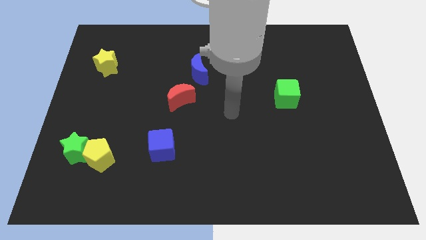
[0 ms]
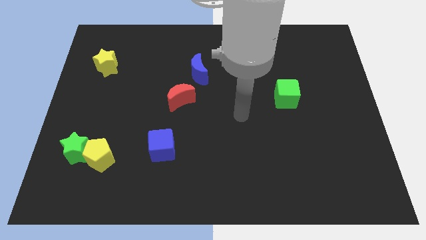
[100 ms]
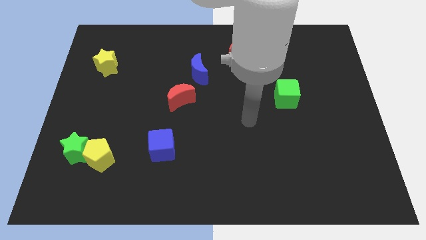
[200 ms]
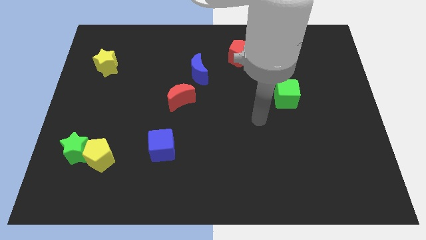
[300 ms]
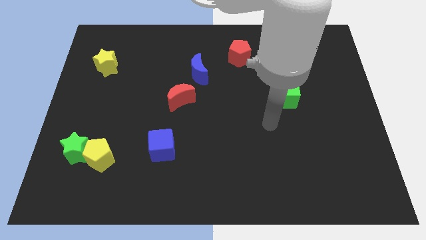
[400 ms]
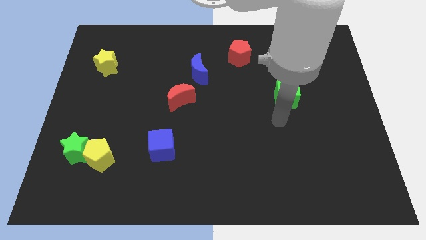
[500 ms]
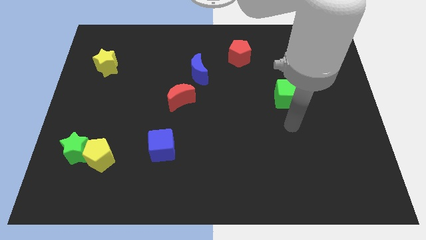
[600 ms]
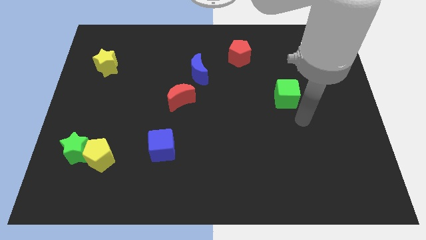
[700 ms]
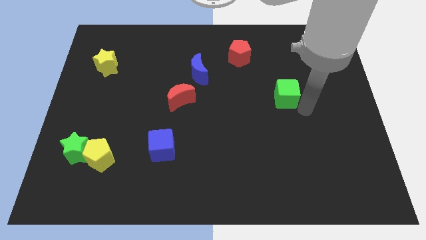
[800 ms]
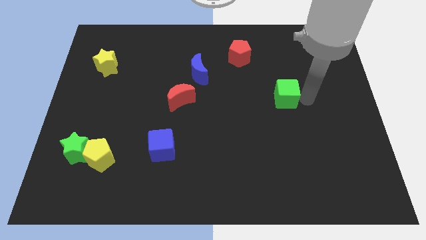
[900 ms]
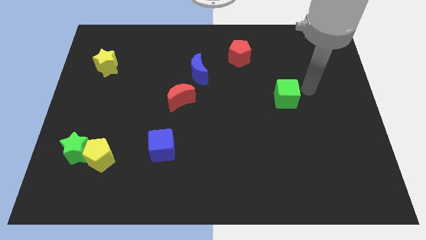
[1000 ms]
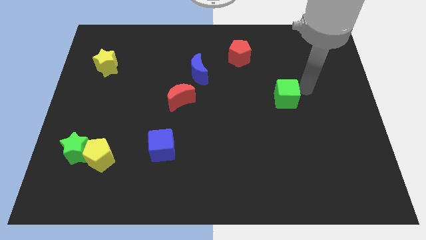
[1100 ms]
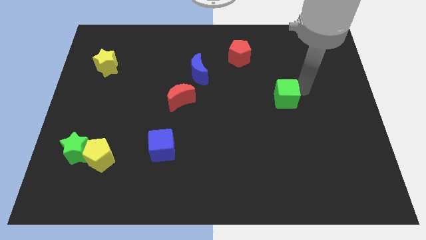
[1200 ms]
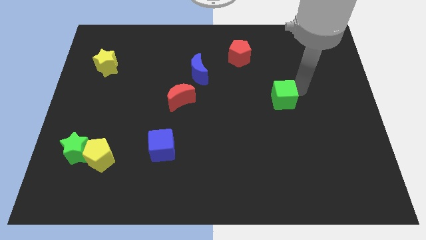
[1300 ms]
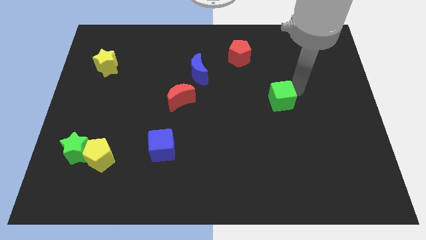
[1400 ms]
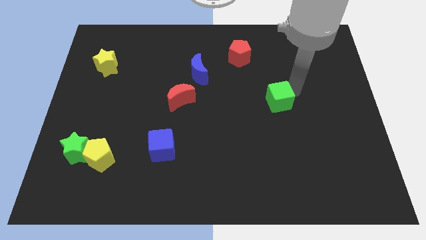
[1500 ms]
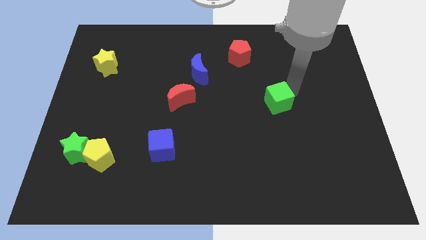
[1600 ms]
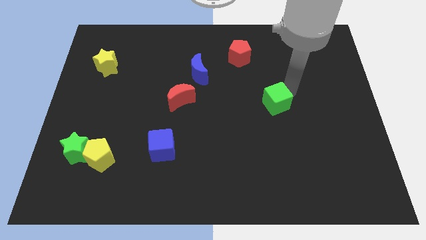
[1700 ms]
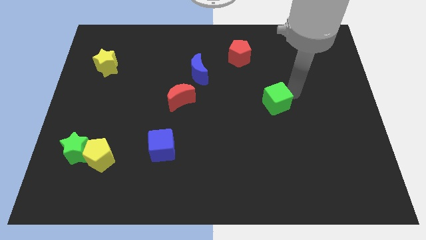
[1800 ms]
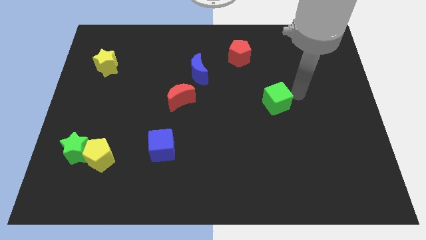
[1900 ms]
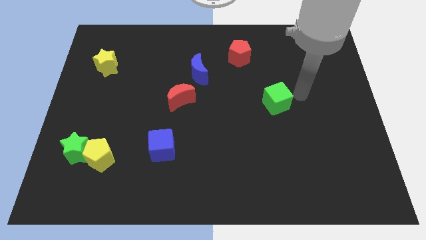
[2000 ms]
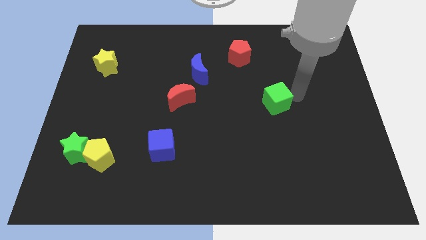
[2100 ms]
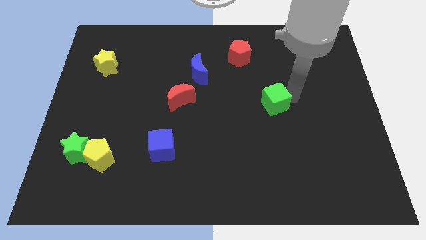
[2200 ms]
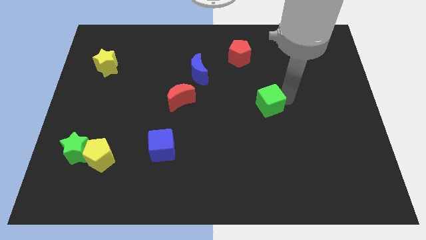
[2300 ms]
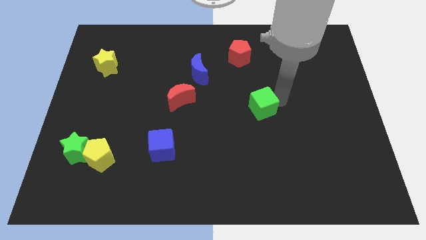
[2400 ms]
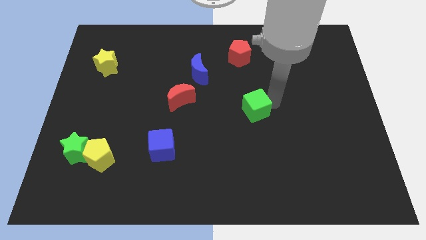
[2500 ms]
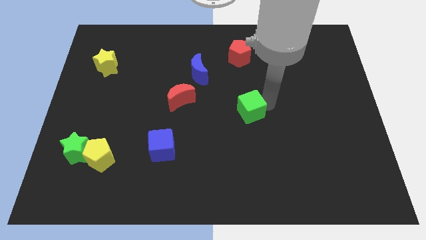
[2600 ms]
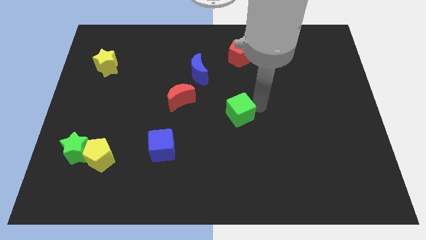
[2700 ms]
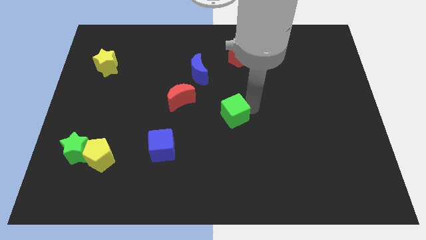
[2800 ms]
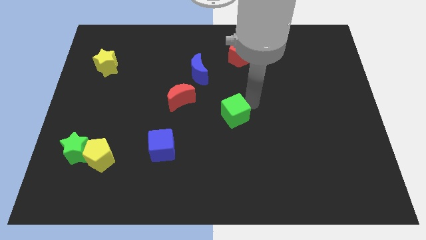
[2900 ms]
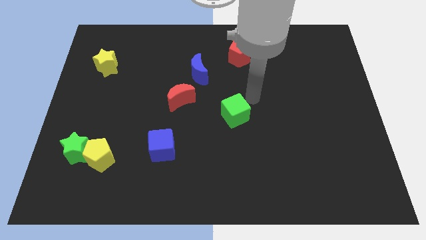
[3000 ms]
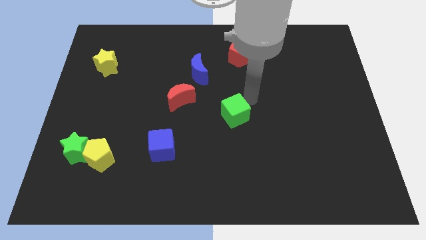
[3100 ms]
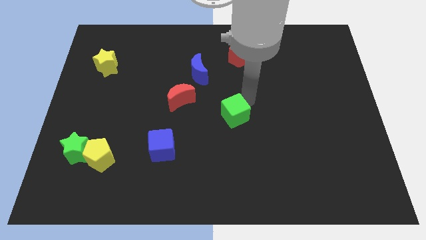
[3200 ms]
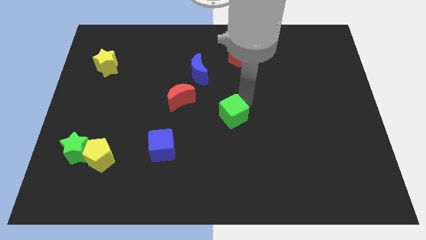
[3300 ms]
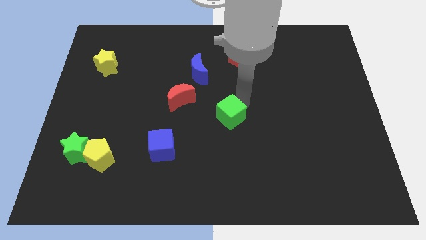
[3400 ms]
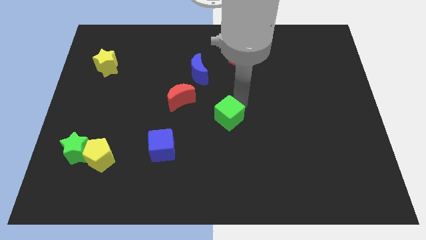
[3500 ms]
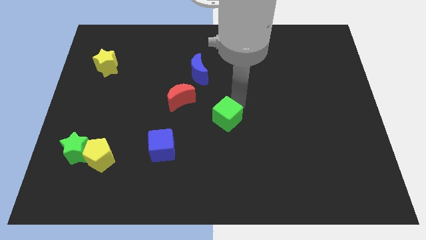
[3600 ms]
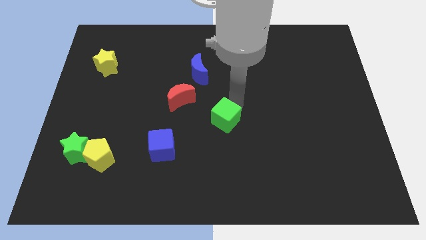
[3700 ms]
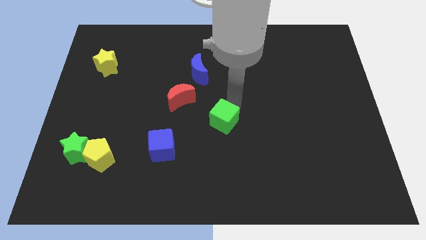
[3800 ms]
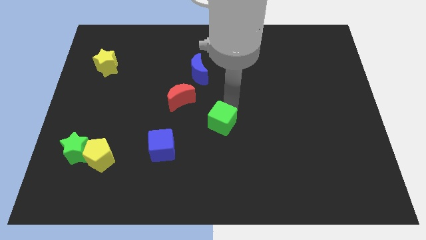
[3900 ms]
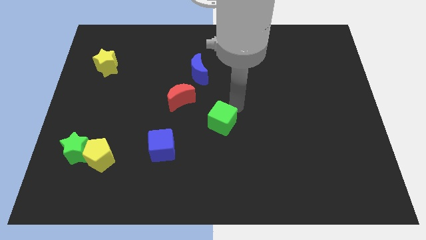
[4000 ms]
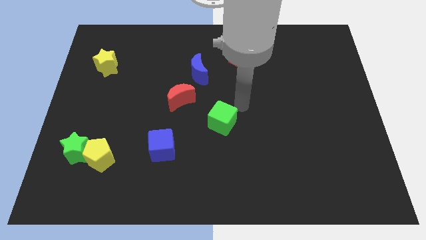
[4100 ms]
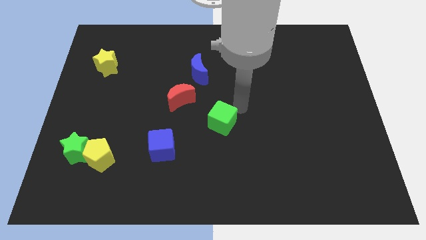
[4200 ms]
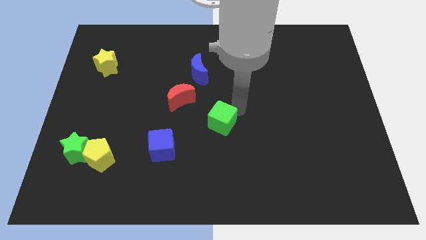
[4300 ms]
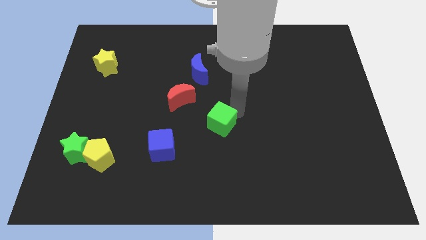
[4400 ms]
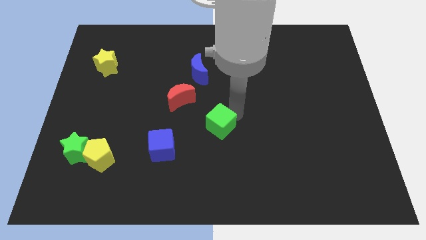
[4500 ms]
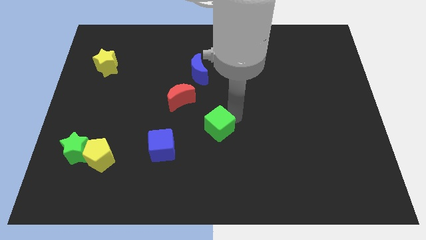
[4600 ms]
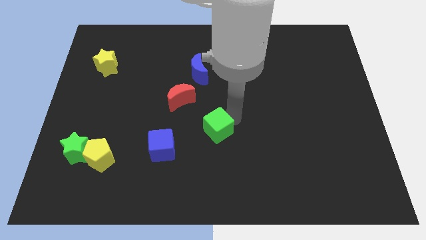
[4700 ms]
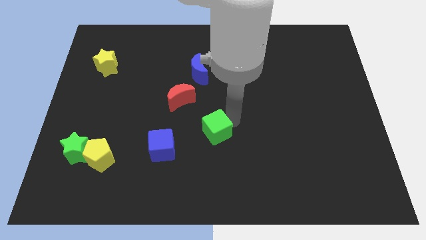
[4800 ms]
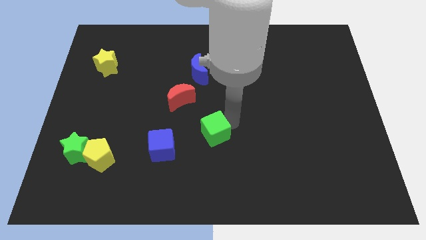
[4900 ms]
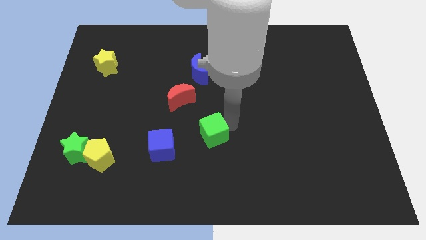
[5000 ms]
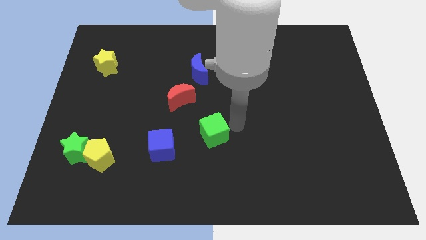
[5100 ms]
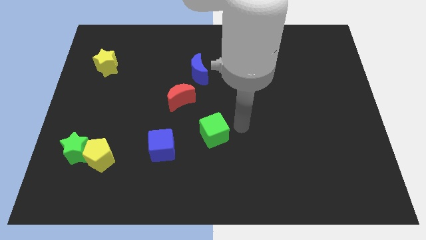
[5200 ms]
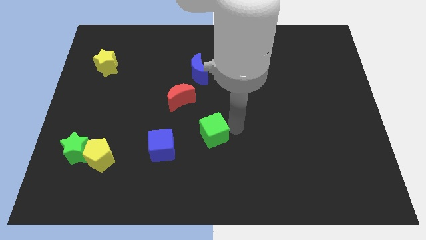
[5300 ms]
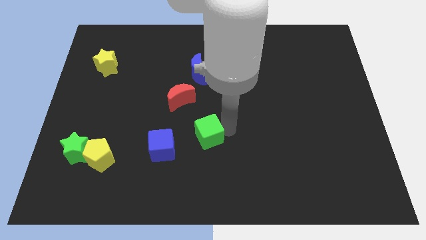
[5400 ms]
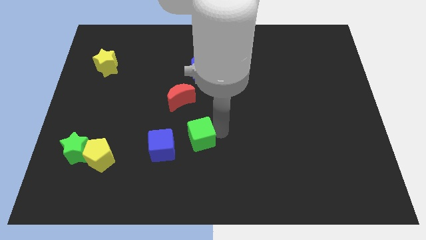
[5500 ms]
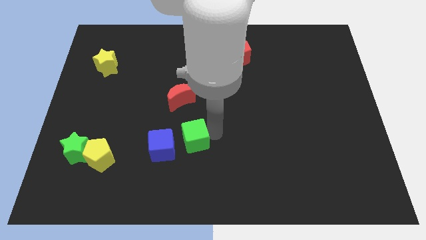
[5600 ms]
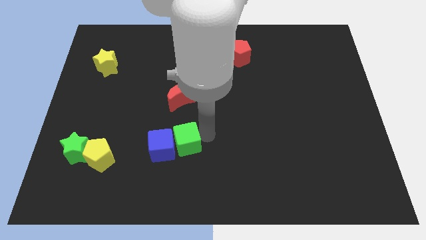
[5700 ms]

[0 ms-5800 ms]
push the green cube to the blue cube

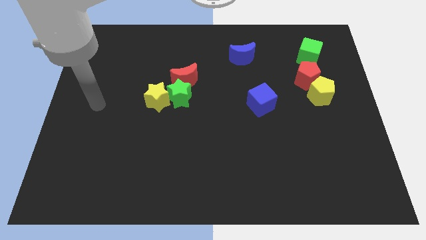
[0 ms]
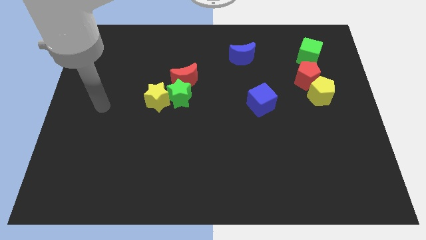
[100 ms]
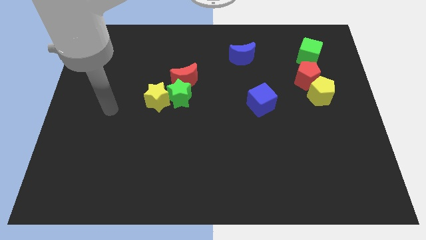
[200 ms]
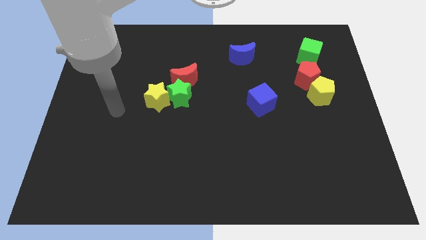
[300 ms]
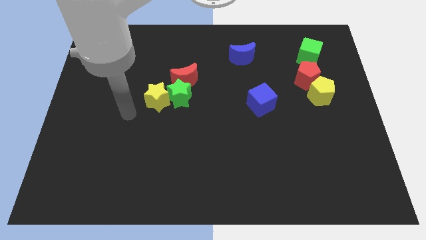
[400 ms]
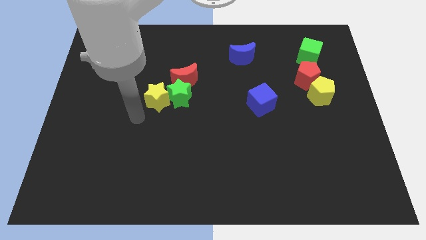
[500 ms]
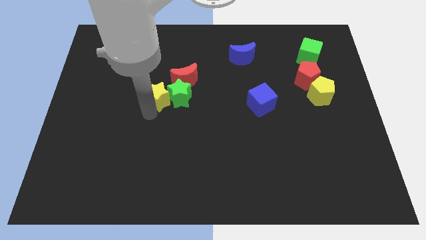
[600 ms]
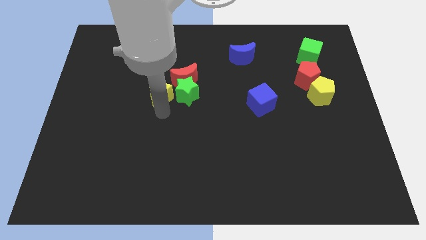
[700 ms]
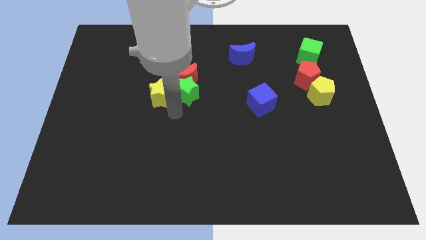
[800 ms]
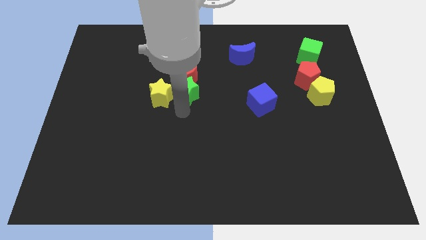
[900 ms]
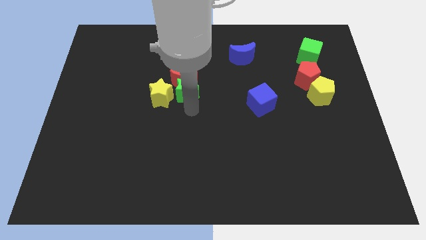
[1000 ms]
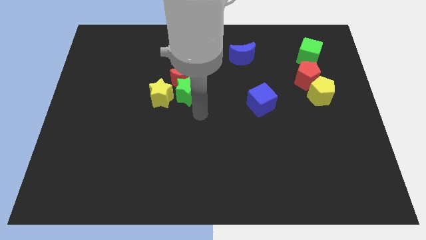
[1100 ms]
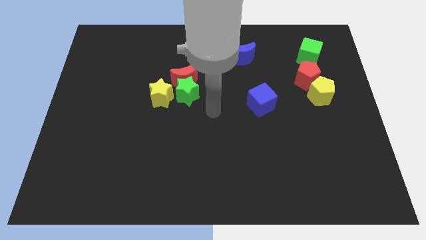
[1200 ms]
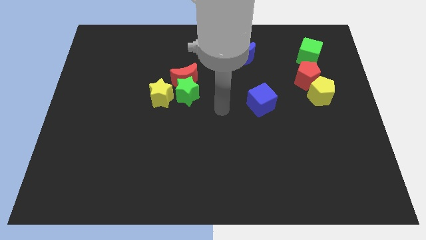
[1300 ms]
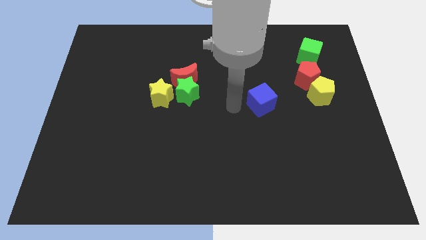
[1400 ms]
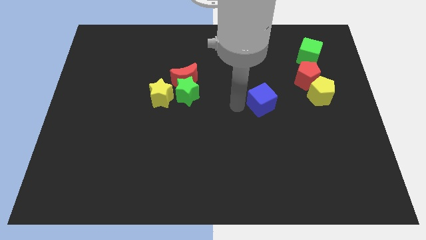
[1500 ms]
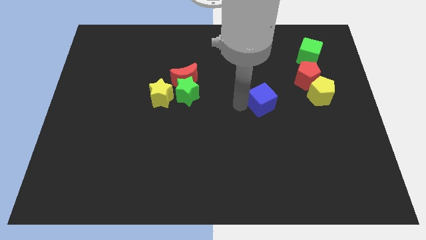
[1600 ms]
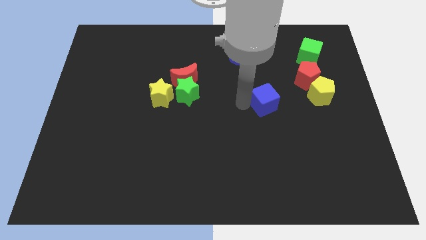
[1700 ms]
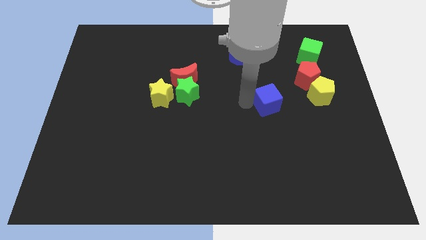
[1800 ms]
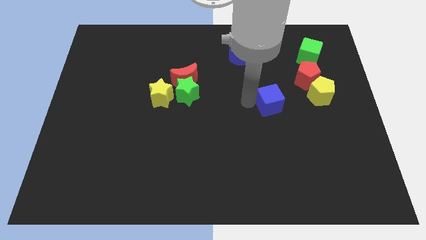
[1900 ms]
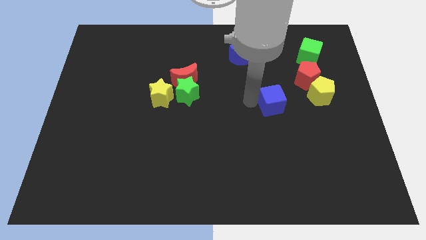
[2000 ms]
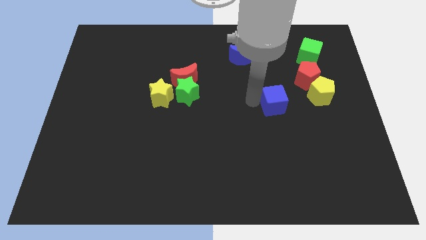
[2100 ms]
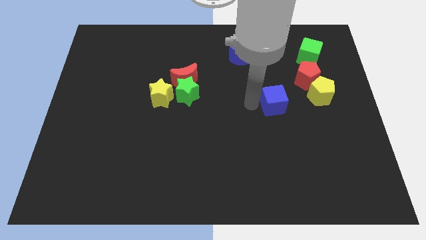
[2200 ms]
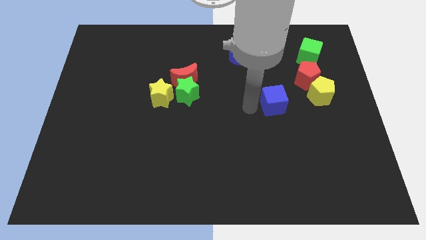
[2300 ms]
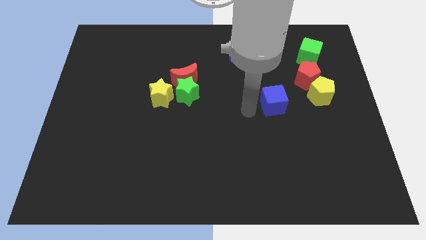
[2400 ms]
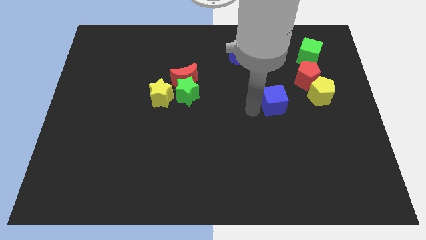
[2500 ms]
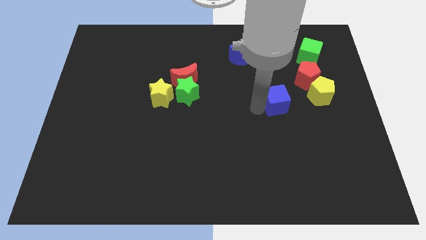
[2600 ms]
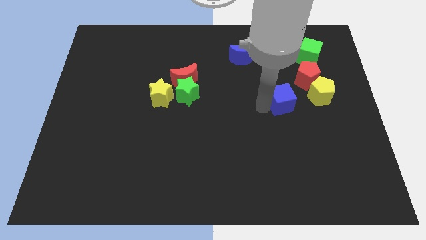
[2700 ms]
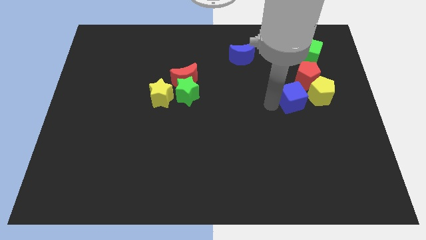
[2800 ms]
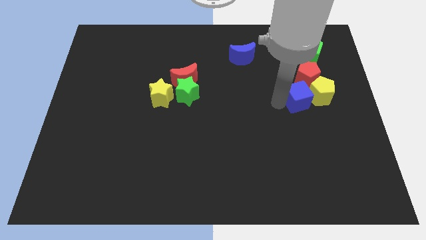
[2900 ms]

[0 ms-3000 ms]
move the blue cube towards the yellow pentagon
